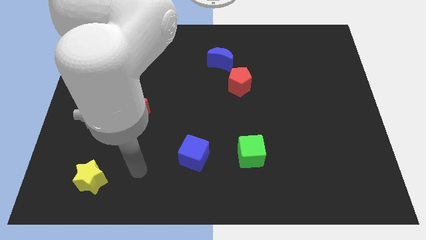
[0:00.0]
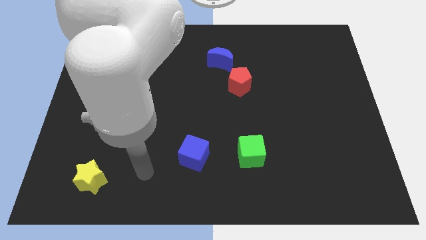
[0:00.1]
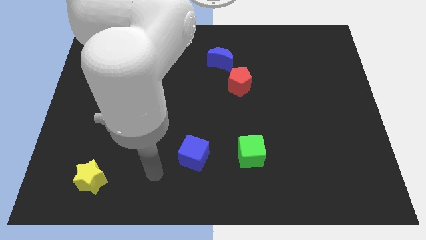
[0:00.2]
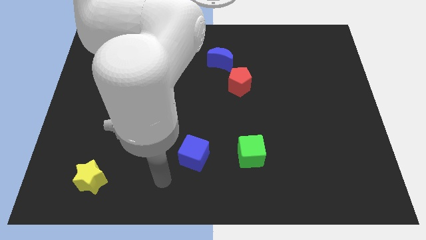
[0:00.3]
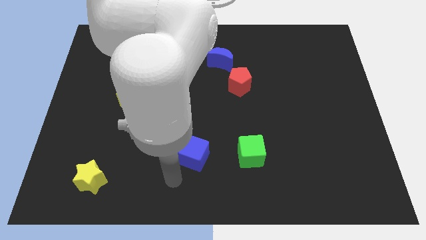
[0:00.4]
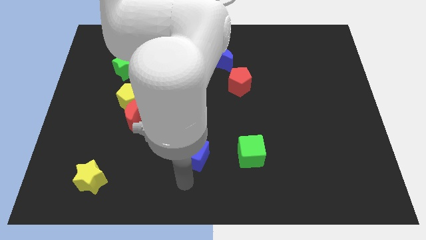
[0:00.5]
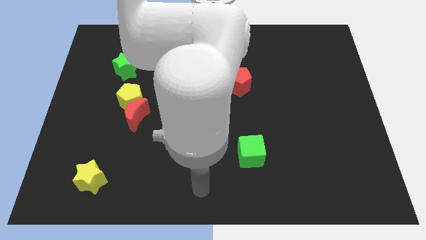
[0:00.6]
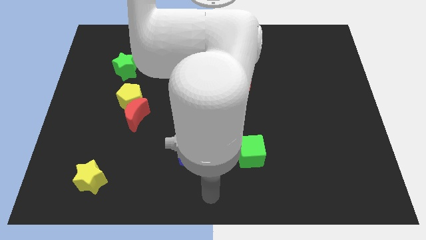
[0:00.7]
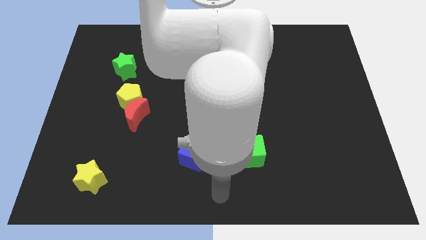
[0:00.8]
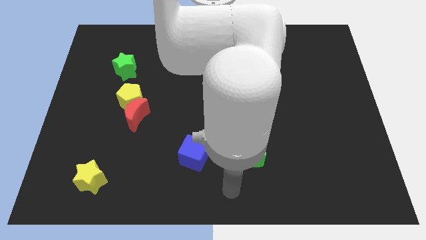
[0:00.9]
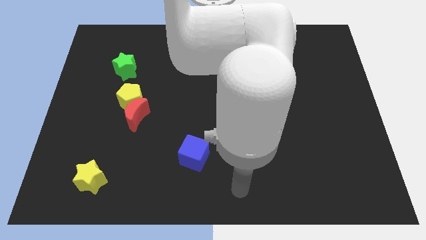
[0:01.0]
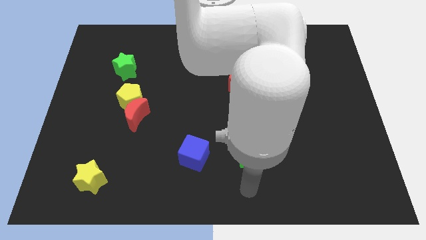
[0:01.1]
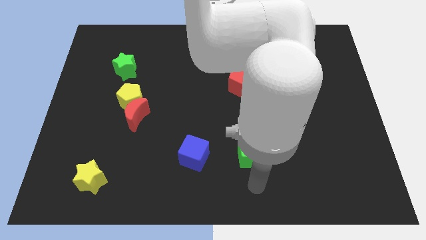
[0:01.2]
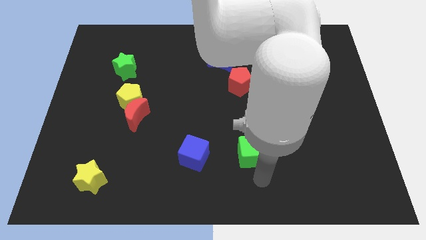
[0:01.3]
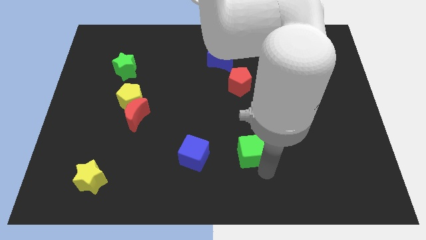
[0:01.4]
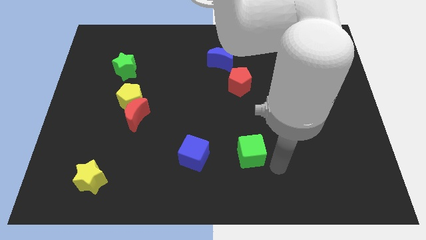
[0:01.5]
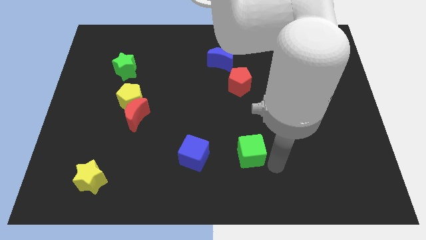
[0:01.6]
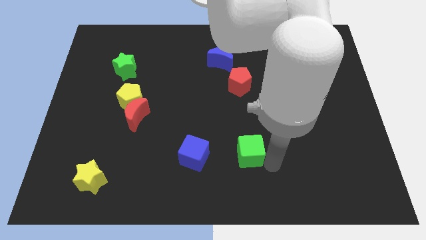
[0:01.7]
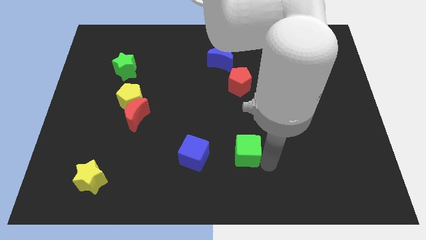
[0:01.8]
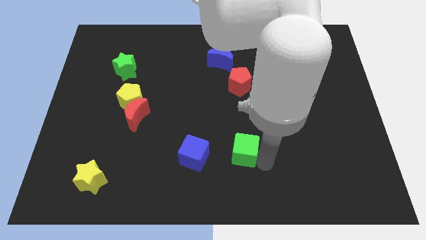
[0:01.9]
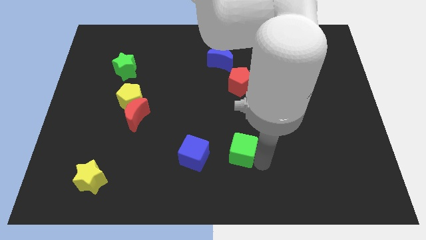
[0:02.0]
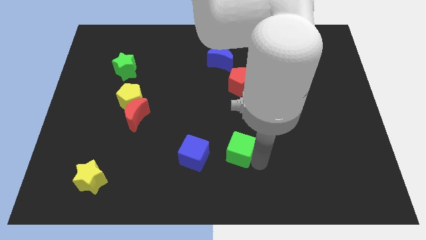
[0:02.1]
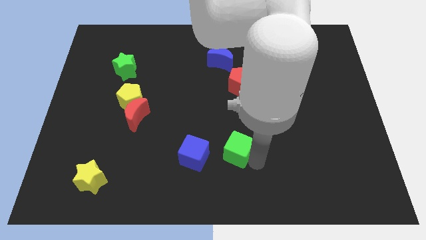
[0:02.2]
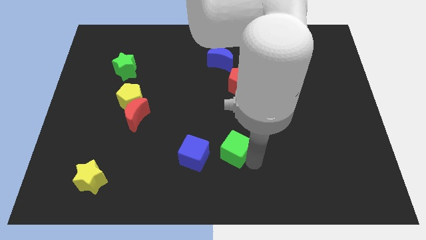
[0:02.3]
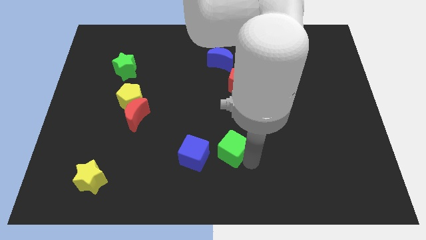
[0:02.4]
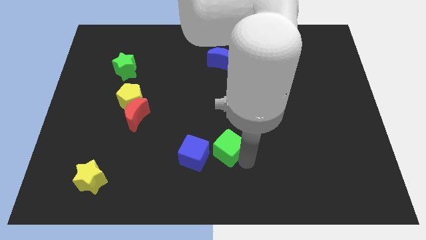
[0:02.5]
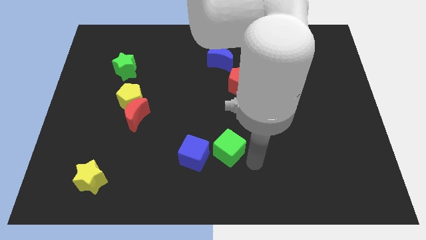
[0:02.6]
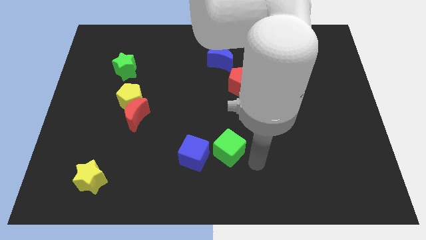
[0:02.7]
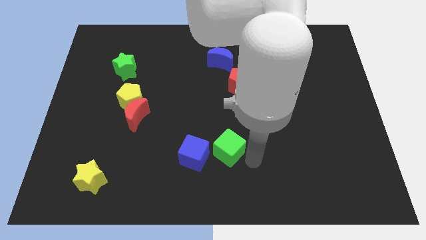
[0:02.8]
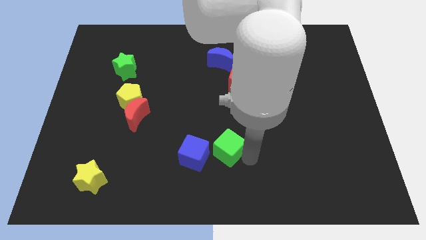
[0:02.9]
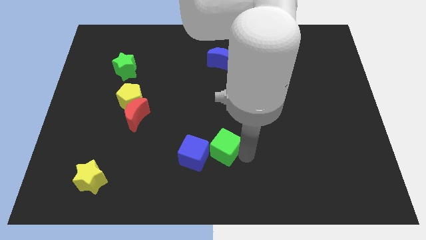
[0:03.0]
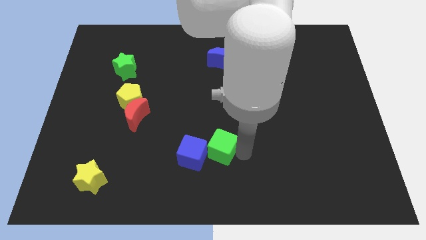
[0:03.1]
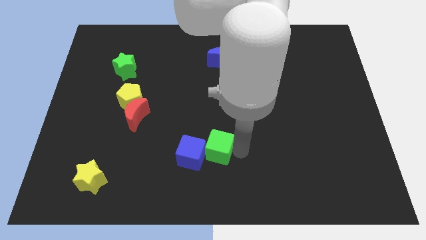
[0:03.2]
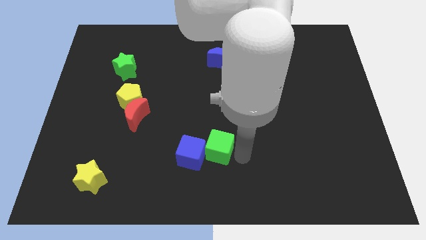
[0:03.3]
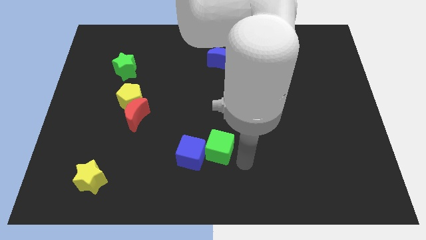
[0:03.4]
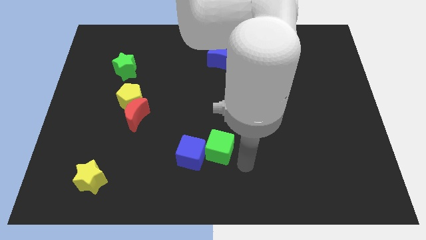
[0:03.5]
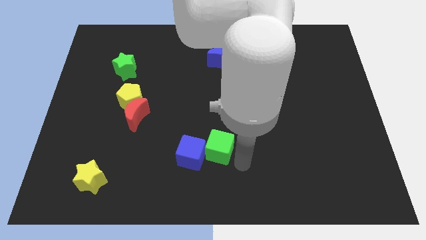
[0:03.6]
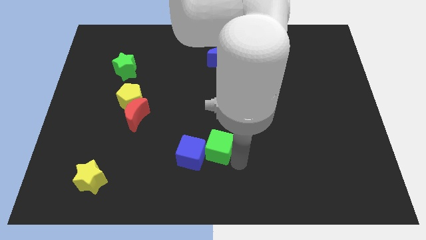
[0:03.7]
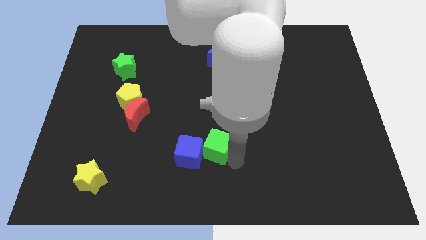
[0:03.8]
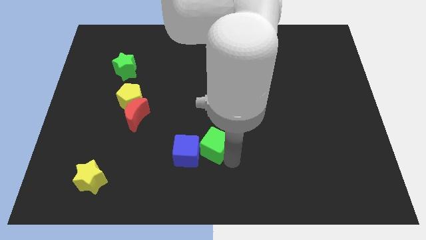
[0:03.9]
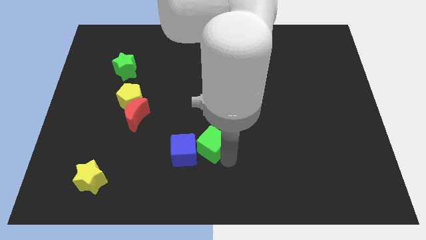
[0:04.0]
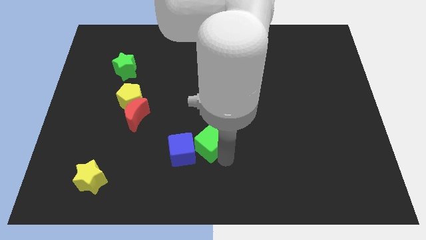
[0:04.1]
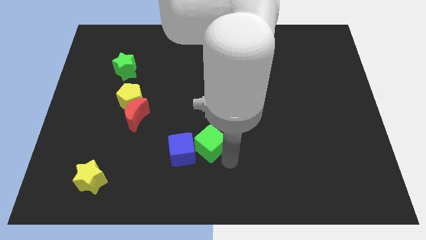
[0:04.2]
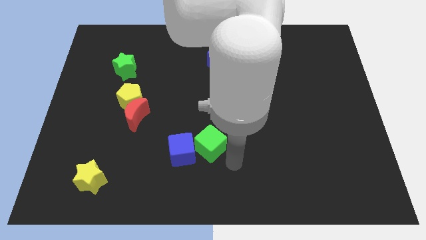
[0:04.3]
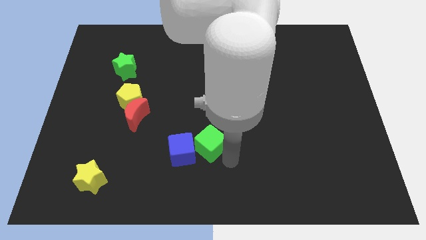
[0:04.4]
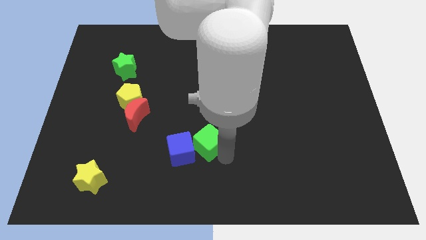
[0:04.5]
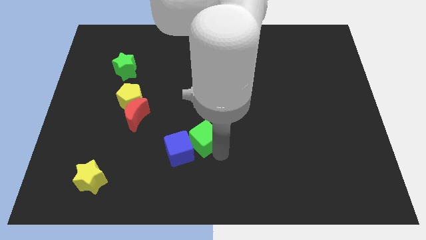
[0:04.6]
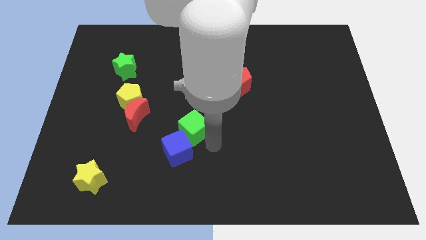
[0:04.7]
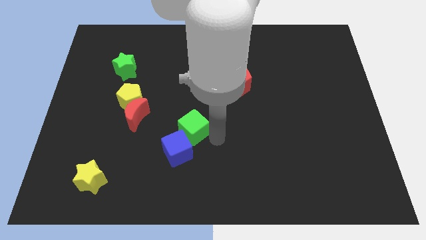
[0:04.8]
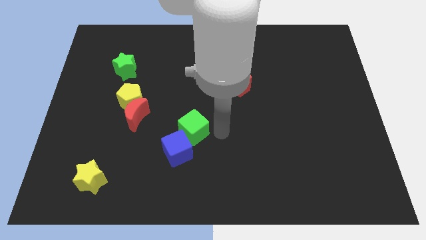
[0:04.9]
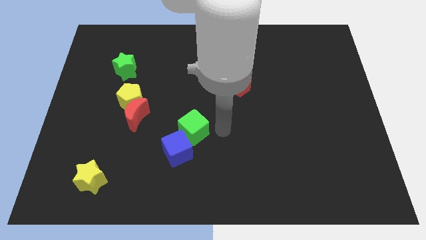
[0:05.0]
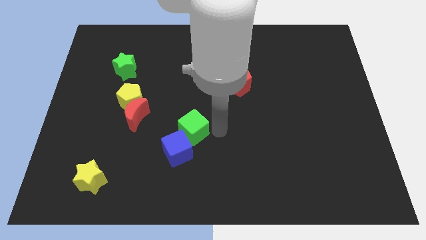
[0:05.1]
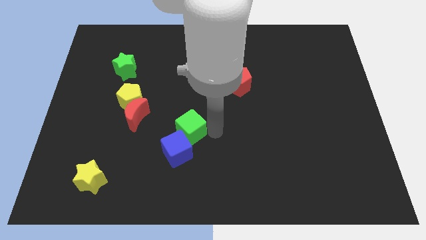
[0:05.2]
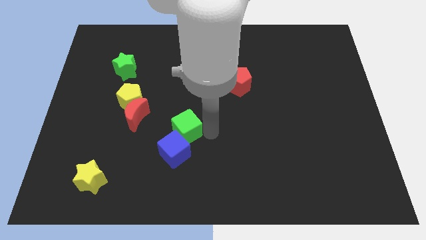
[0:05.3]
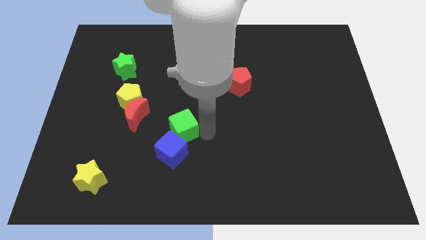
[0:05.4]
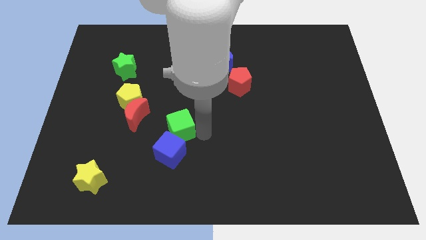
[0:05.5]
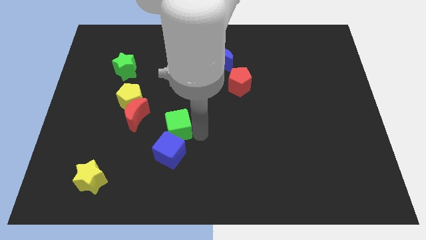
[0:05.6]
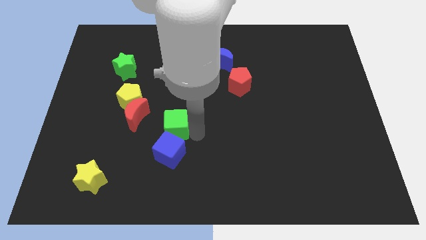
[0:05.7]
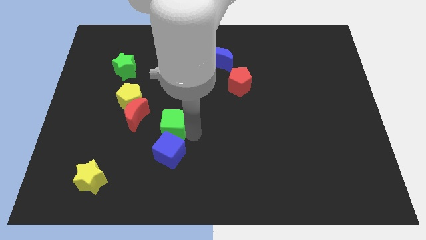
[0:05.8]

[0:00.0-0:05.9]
put the green cube to the top left side of the blue cube

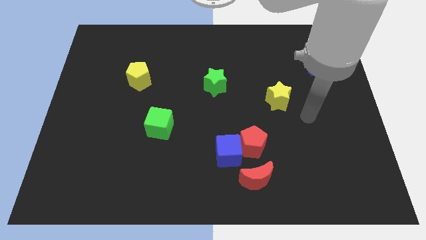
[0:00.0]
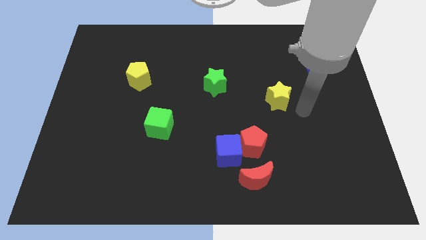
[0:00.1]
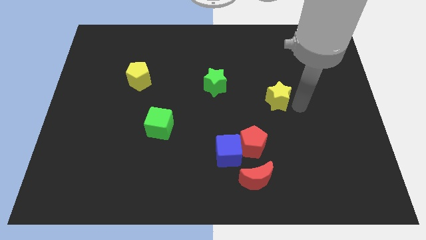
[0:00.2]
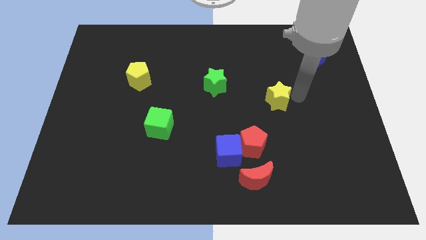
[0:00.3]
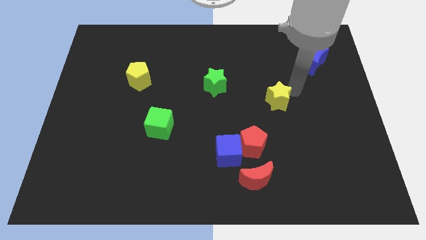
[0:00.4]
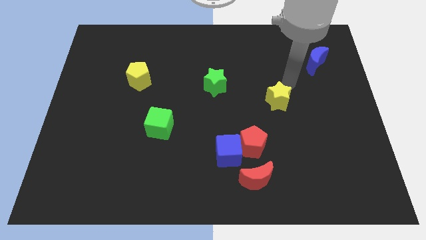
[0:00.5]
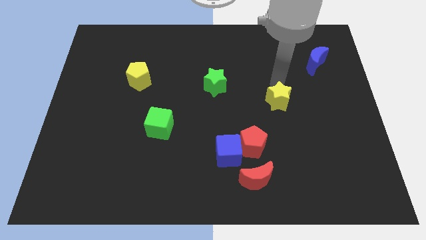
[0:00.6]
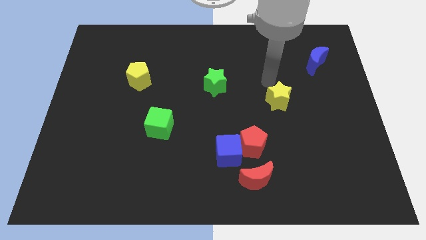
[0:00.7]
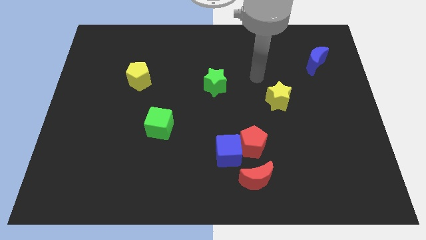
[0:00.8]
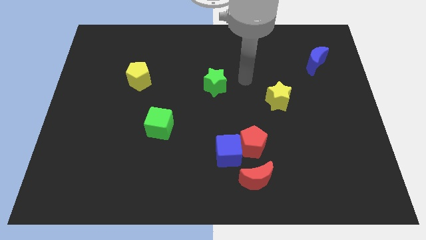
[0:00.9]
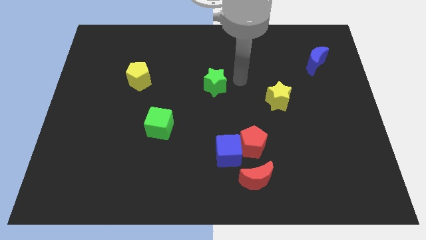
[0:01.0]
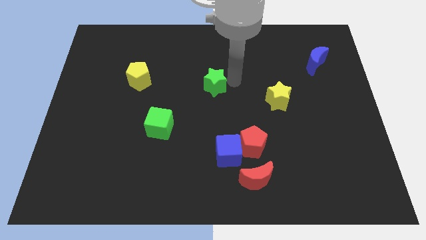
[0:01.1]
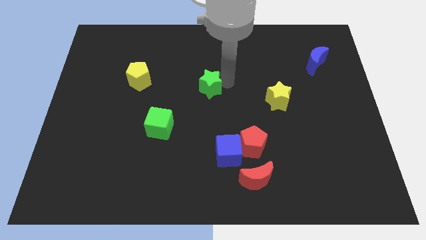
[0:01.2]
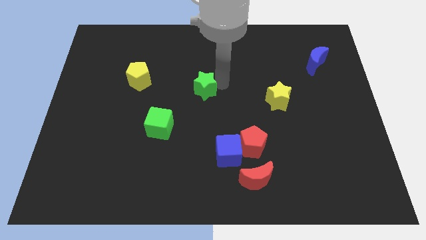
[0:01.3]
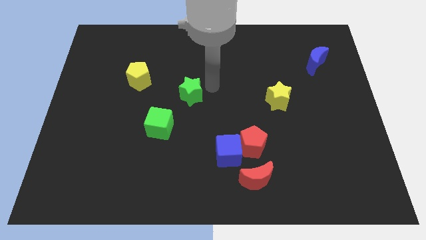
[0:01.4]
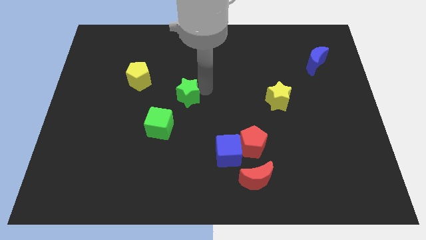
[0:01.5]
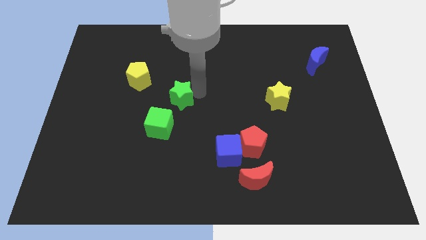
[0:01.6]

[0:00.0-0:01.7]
move the green star to the bottom right of the yellow pentagon
